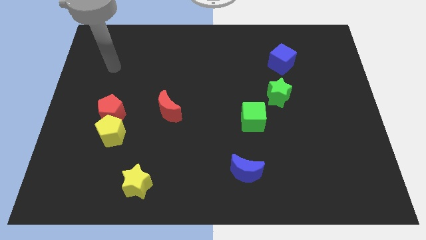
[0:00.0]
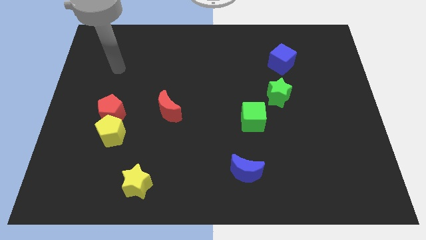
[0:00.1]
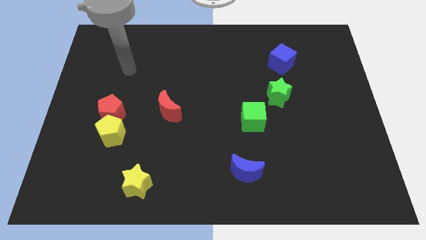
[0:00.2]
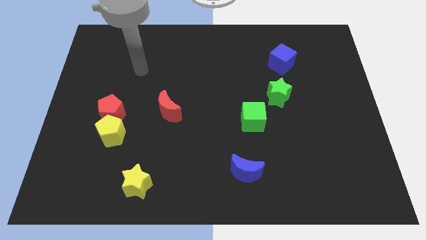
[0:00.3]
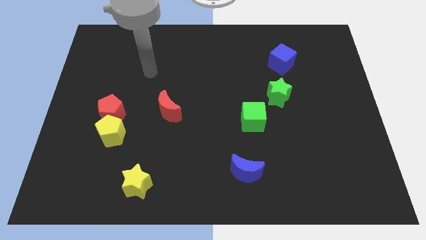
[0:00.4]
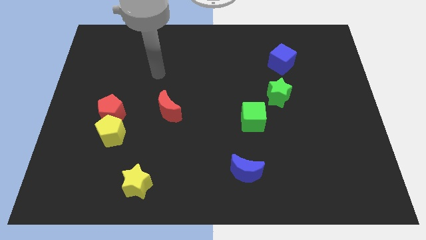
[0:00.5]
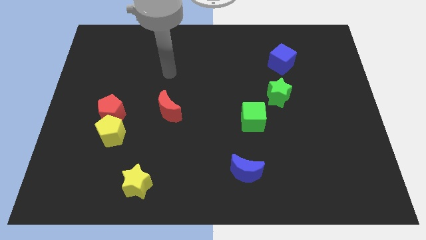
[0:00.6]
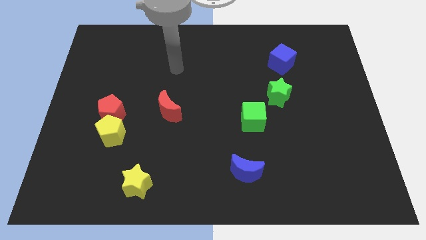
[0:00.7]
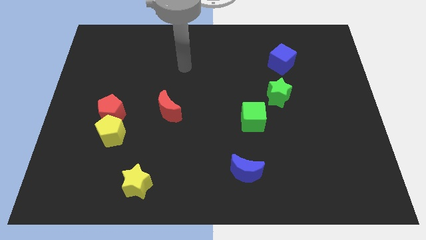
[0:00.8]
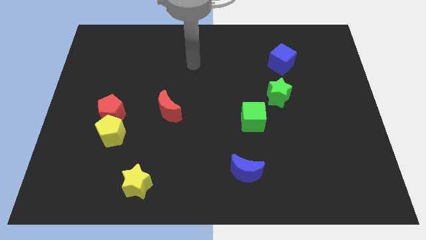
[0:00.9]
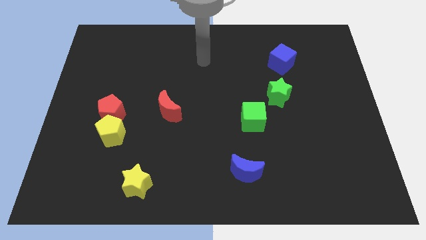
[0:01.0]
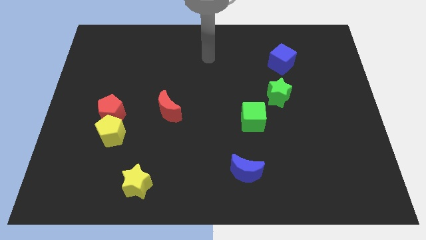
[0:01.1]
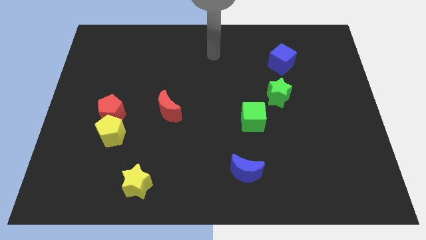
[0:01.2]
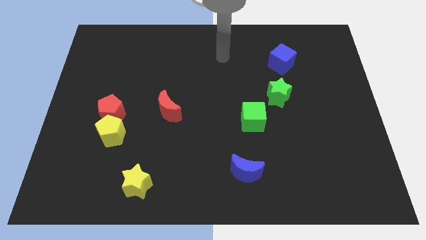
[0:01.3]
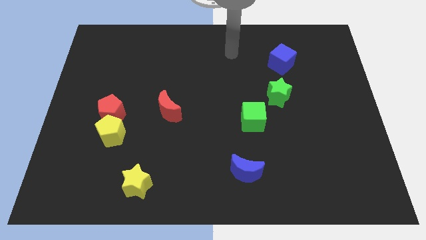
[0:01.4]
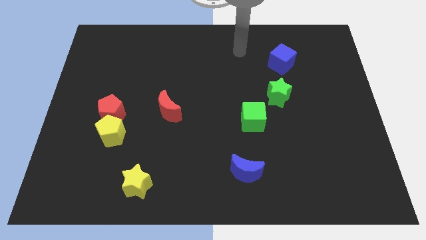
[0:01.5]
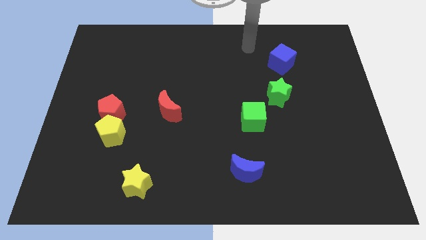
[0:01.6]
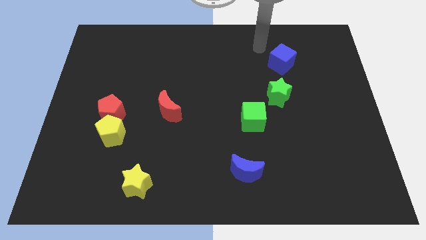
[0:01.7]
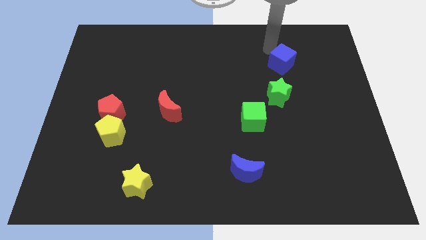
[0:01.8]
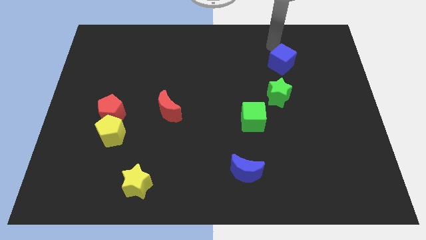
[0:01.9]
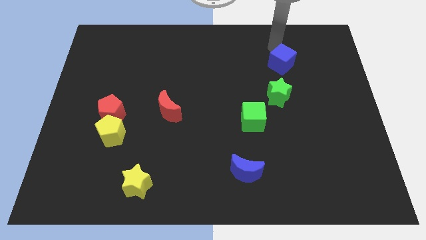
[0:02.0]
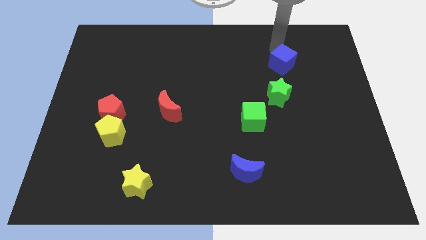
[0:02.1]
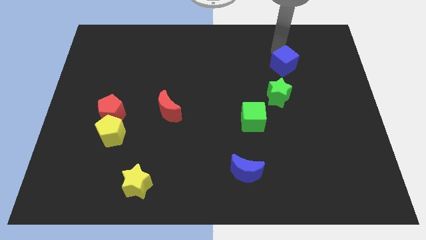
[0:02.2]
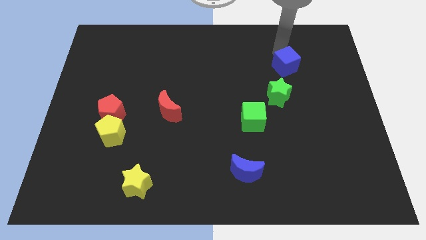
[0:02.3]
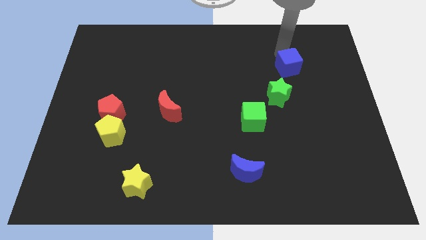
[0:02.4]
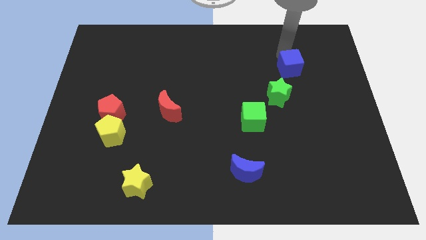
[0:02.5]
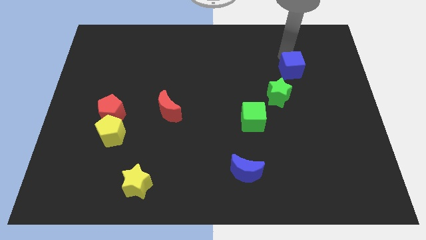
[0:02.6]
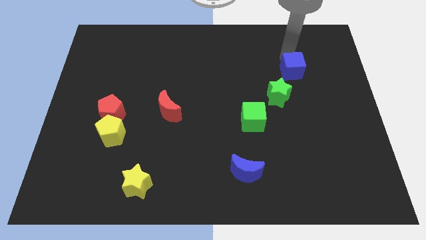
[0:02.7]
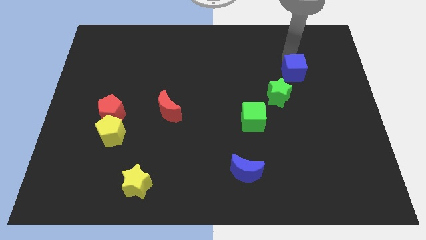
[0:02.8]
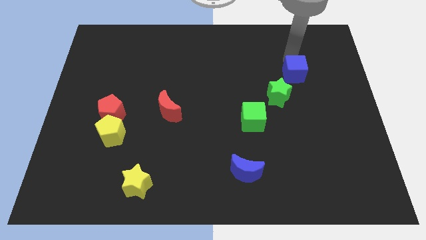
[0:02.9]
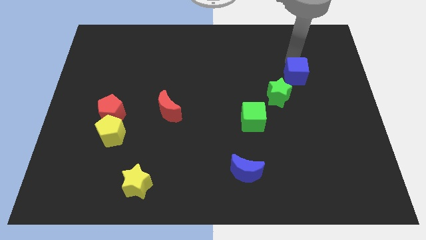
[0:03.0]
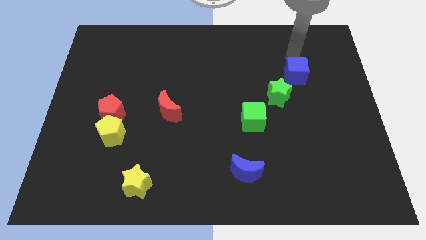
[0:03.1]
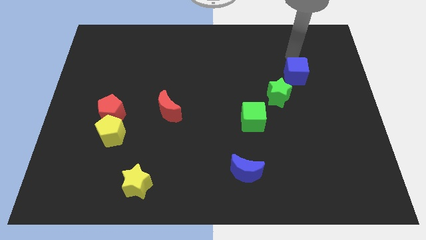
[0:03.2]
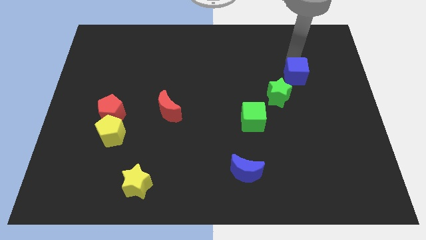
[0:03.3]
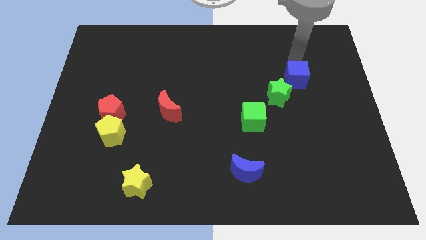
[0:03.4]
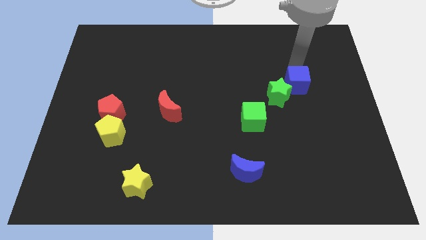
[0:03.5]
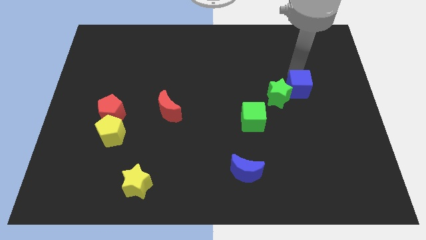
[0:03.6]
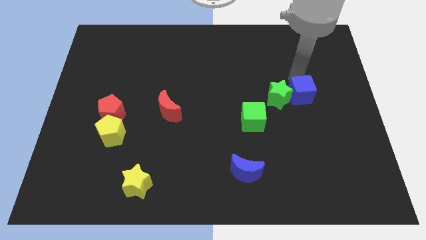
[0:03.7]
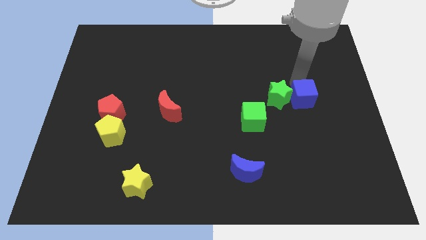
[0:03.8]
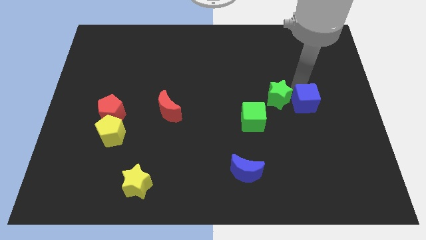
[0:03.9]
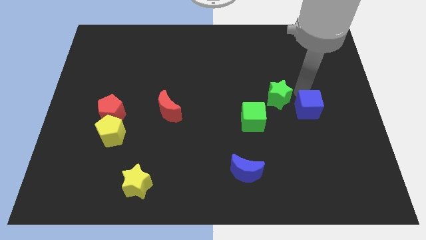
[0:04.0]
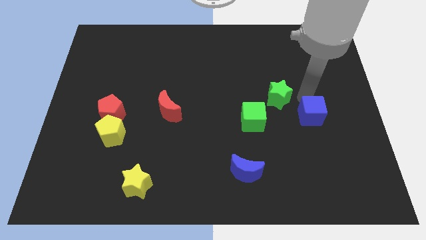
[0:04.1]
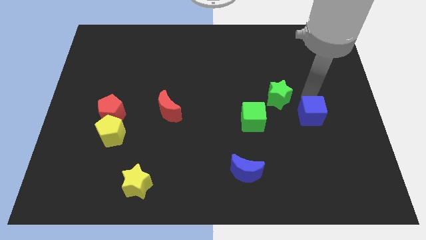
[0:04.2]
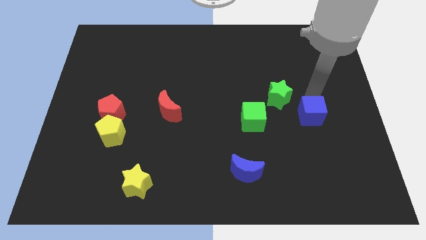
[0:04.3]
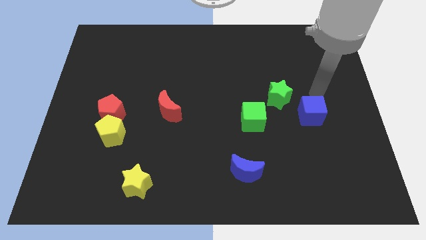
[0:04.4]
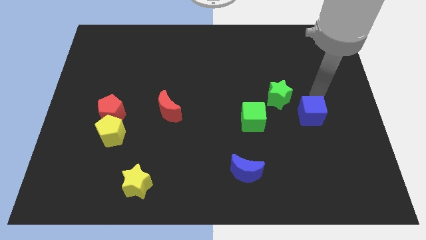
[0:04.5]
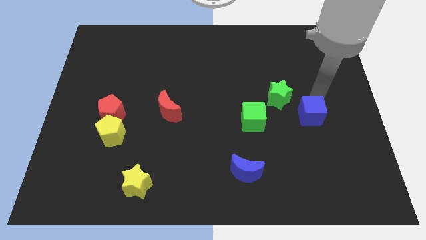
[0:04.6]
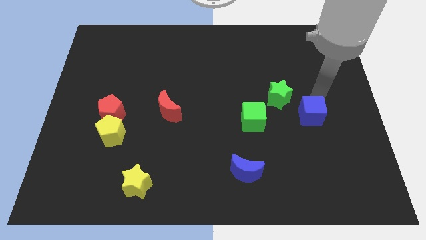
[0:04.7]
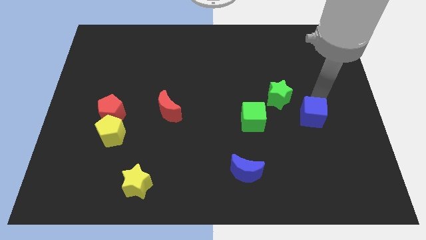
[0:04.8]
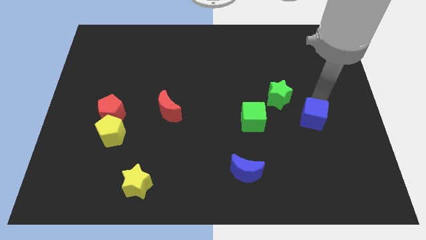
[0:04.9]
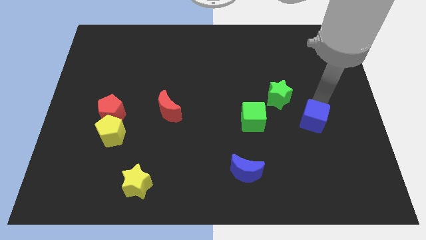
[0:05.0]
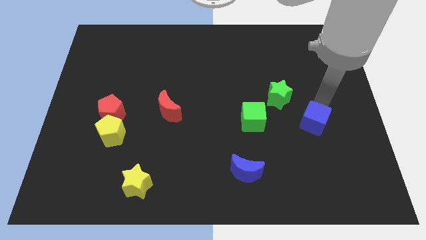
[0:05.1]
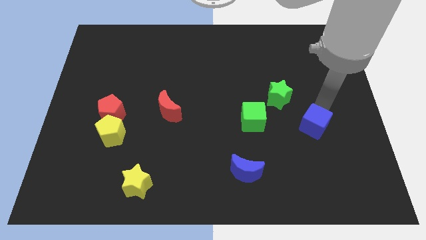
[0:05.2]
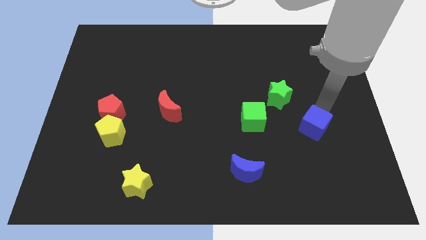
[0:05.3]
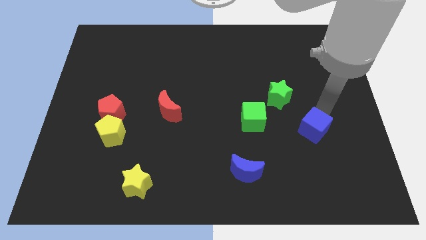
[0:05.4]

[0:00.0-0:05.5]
slide the blue cube down

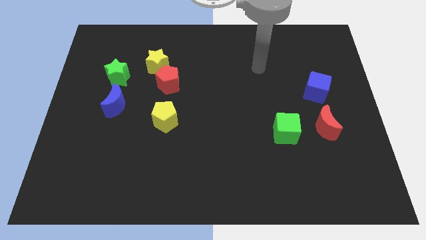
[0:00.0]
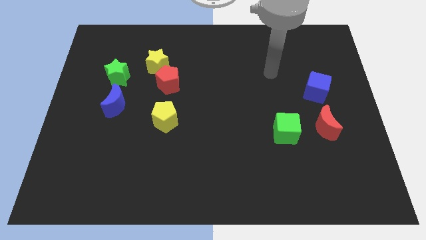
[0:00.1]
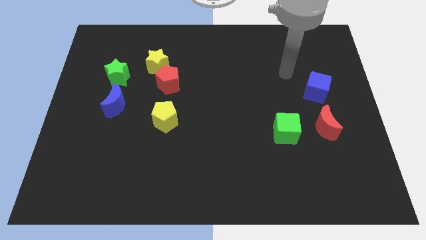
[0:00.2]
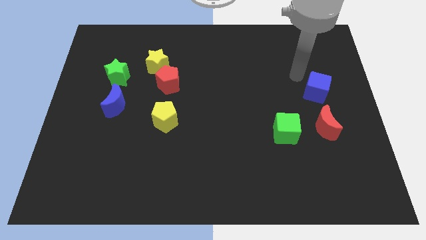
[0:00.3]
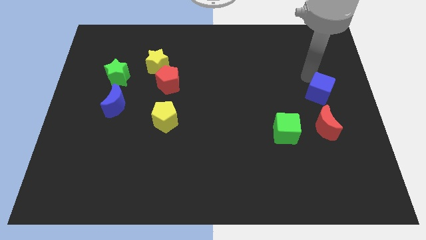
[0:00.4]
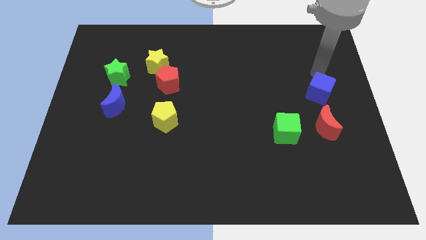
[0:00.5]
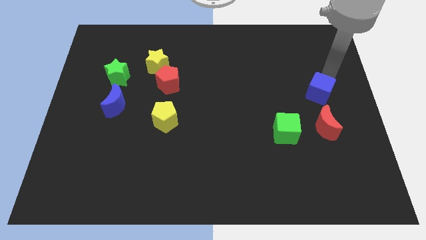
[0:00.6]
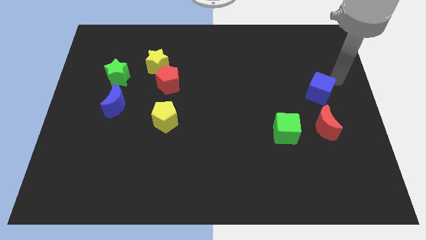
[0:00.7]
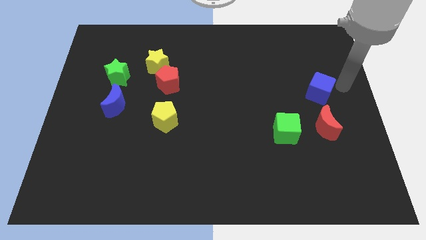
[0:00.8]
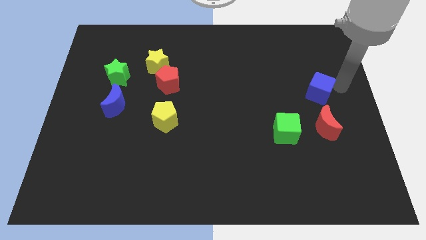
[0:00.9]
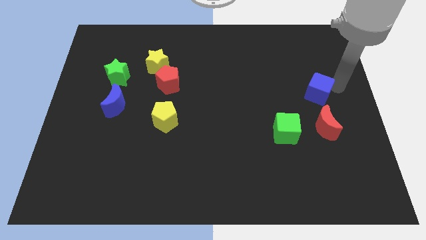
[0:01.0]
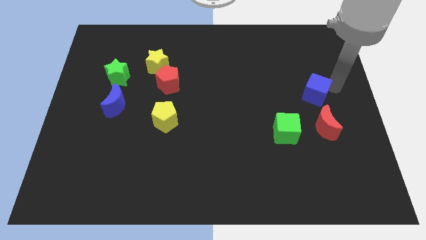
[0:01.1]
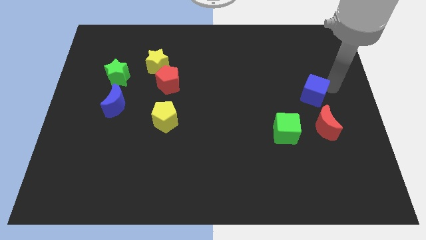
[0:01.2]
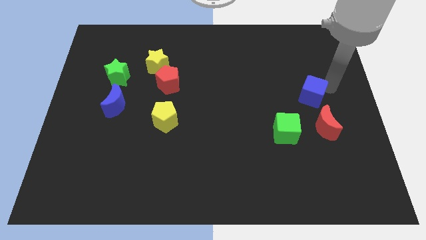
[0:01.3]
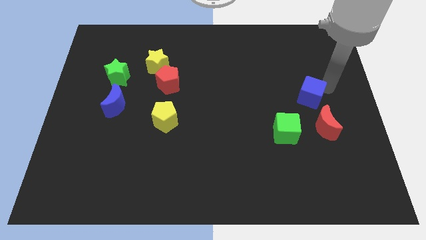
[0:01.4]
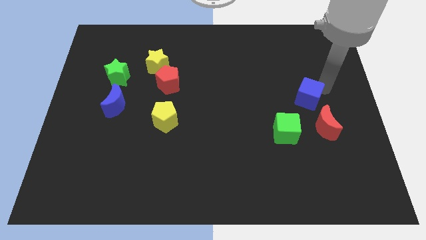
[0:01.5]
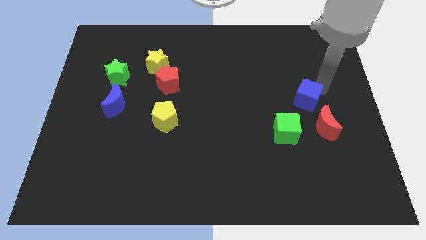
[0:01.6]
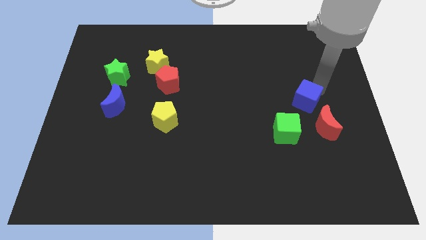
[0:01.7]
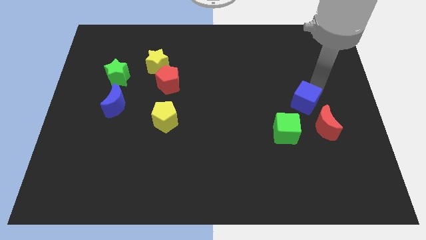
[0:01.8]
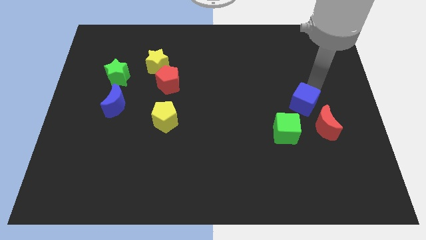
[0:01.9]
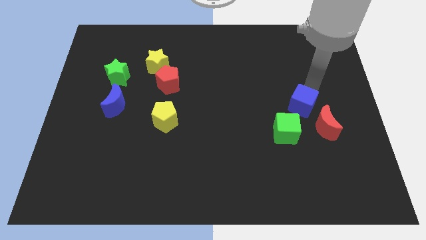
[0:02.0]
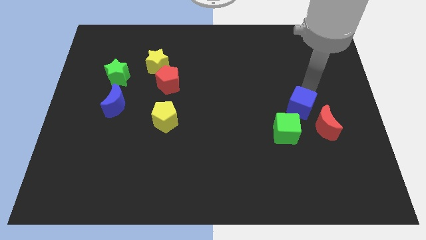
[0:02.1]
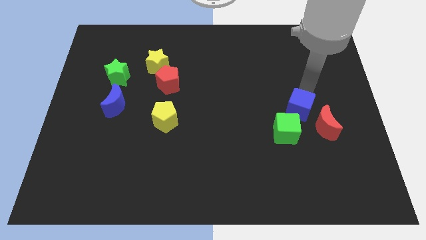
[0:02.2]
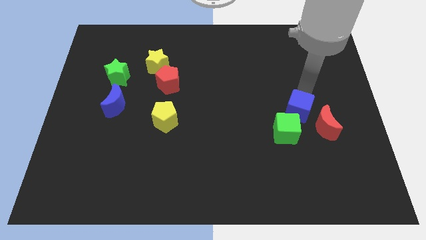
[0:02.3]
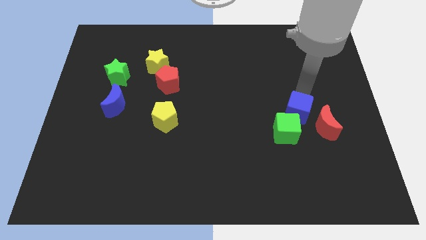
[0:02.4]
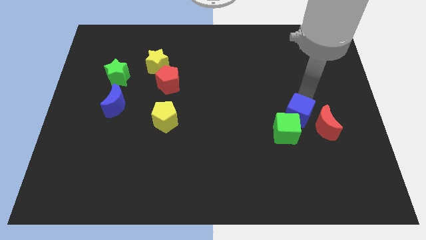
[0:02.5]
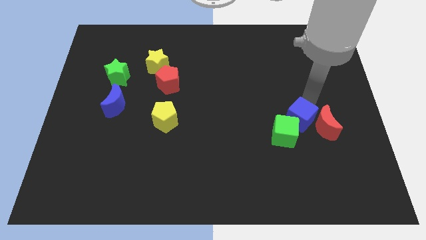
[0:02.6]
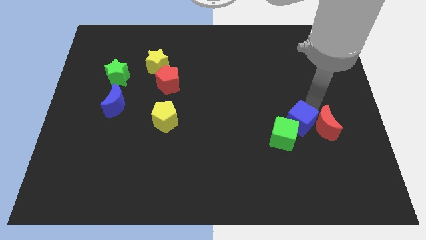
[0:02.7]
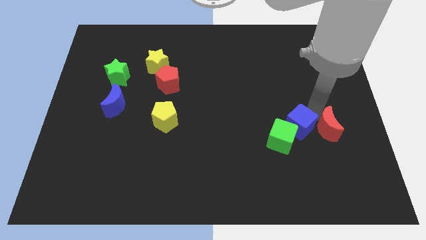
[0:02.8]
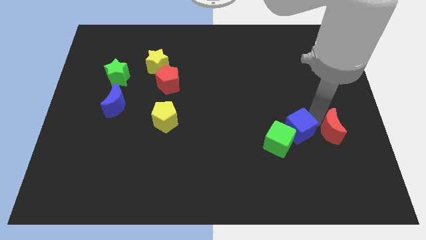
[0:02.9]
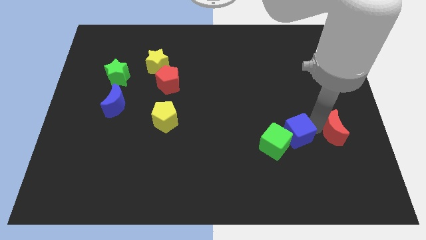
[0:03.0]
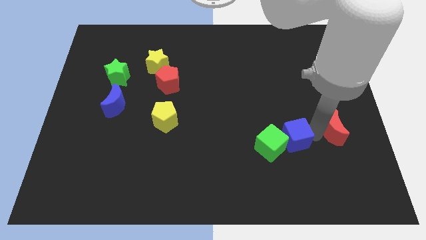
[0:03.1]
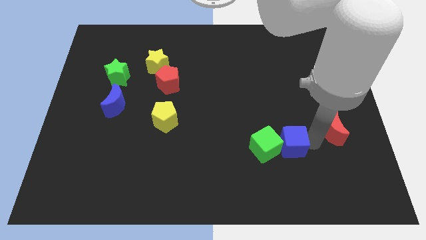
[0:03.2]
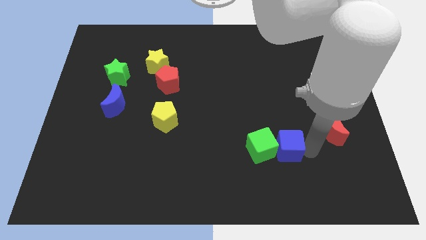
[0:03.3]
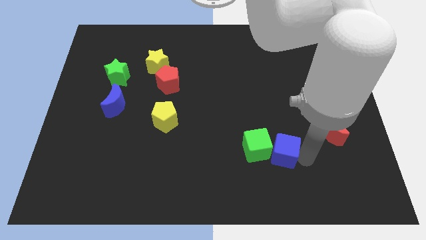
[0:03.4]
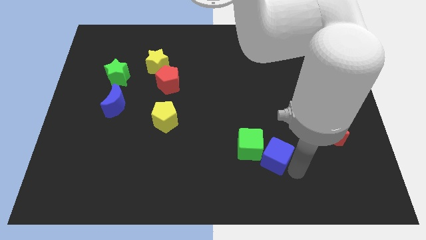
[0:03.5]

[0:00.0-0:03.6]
push the blue cube diagonally downwards and to the left
